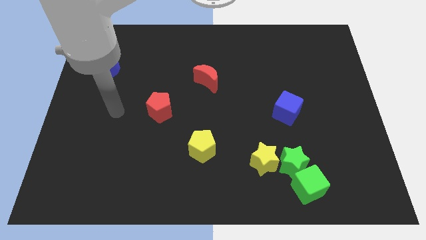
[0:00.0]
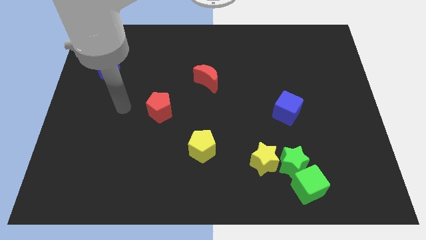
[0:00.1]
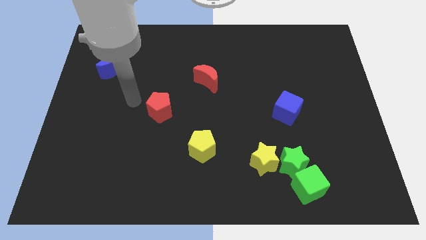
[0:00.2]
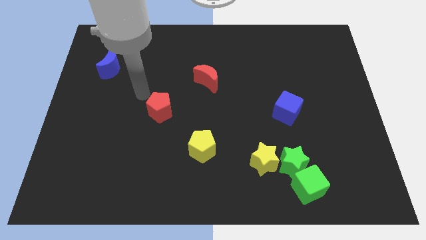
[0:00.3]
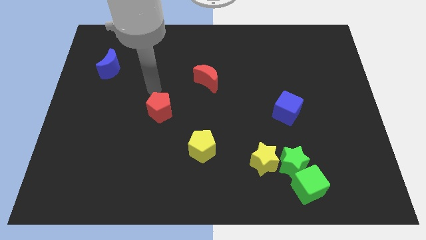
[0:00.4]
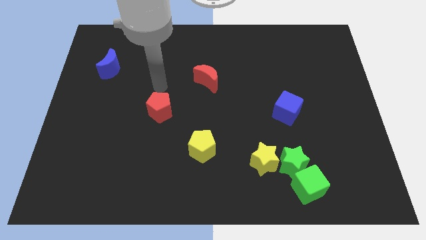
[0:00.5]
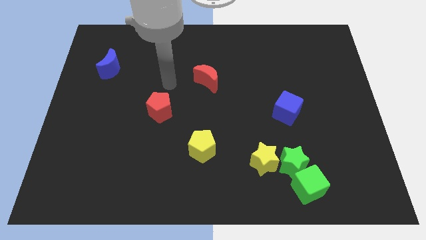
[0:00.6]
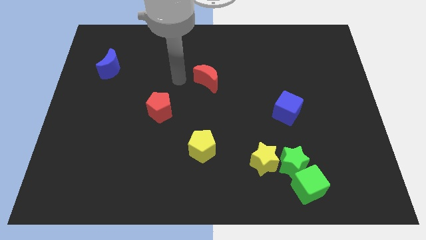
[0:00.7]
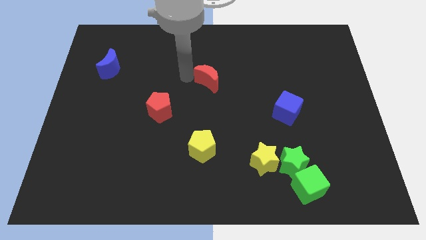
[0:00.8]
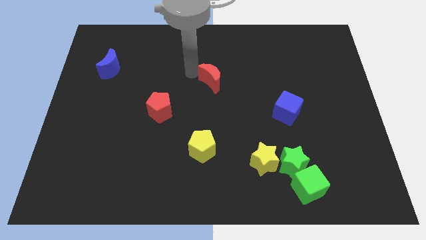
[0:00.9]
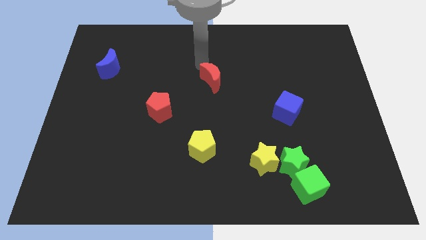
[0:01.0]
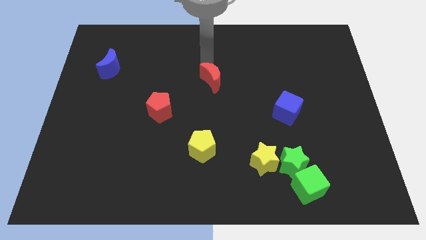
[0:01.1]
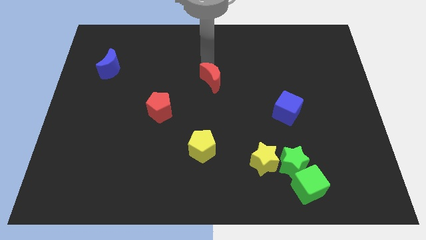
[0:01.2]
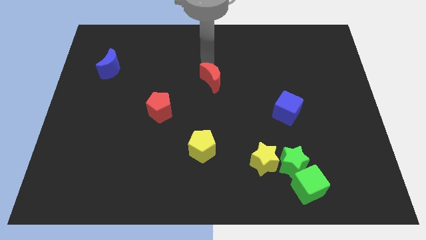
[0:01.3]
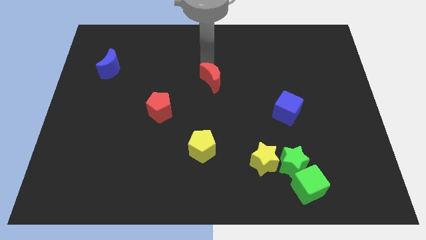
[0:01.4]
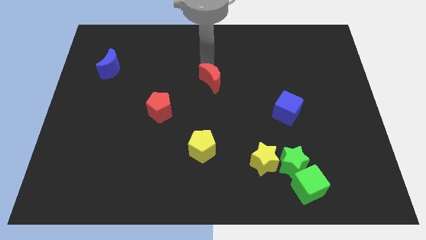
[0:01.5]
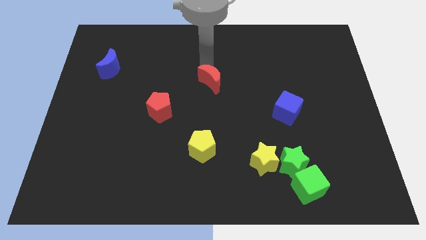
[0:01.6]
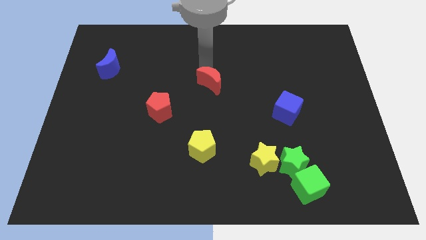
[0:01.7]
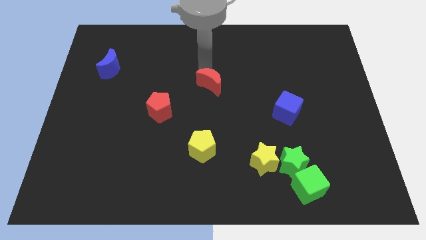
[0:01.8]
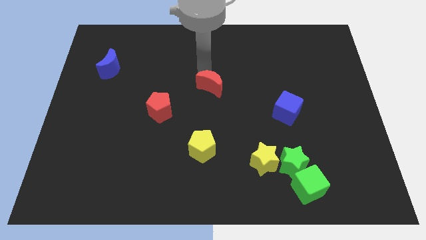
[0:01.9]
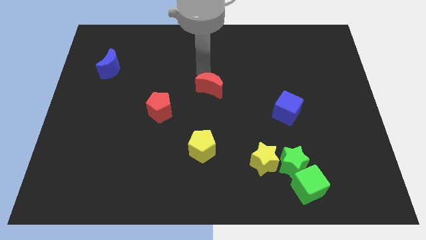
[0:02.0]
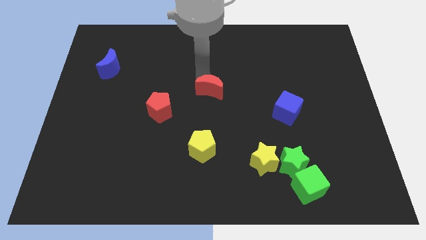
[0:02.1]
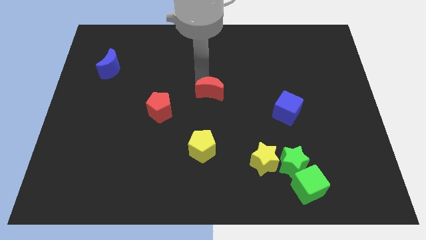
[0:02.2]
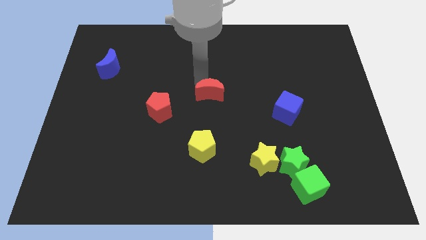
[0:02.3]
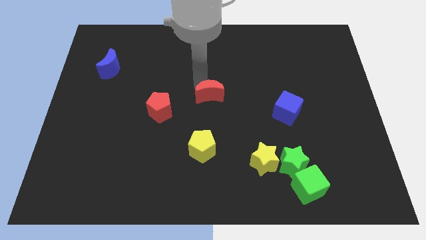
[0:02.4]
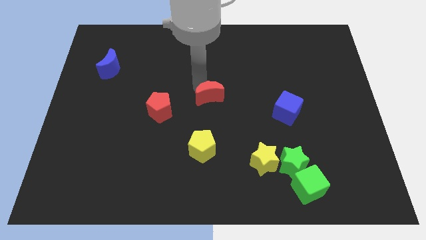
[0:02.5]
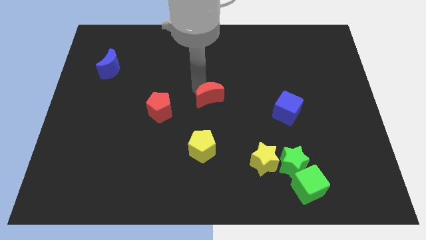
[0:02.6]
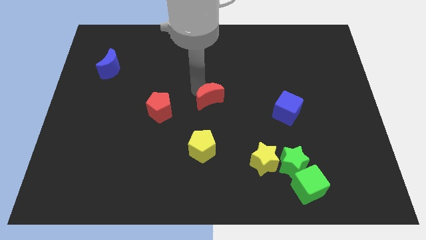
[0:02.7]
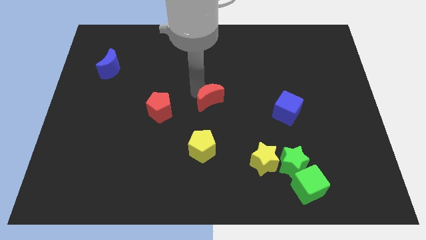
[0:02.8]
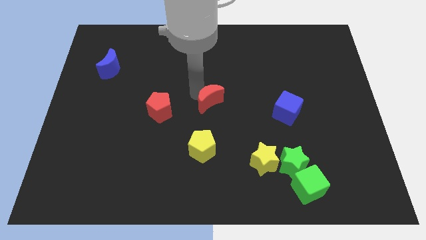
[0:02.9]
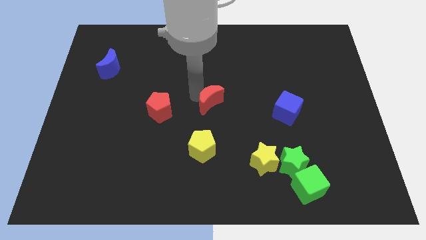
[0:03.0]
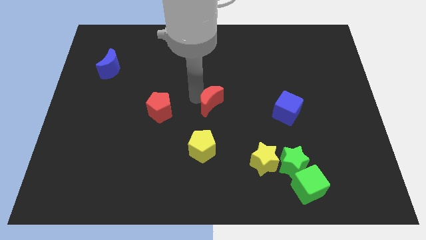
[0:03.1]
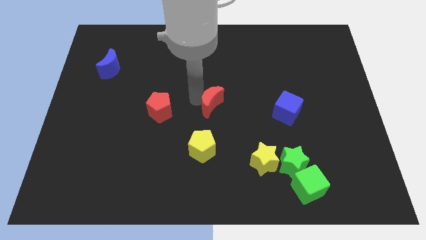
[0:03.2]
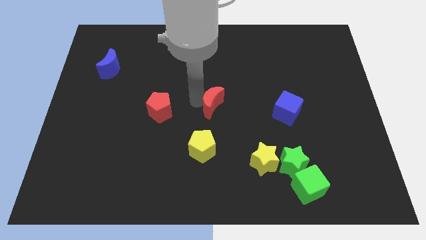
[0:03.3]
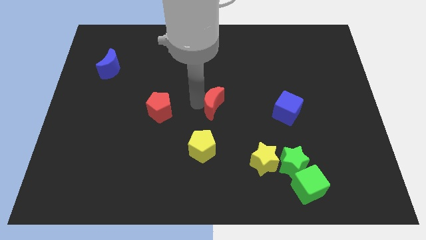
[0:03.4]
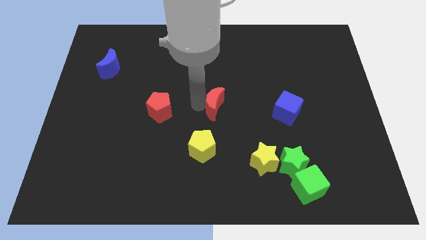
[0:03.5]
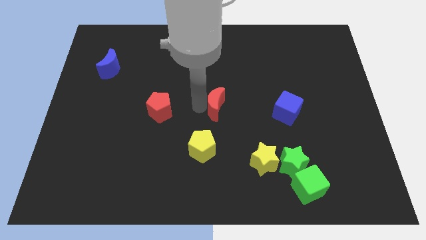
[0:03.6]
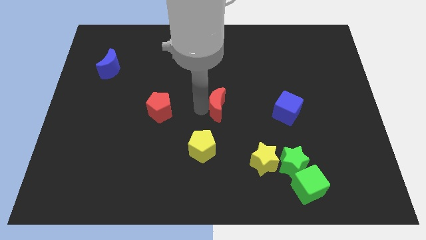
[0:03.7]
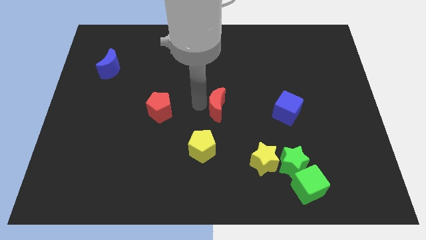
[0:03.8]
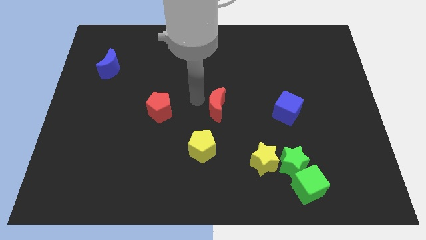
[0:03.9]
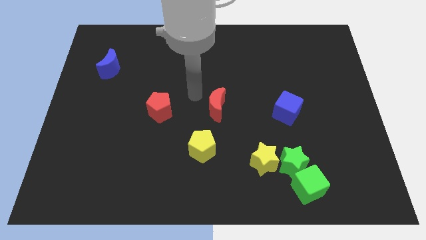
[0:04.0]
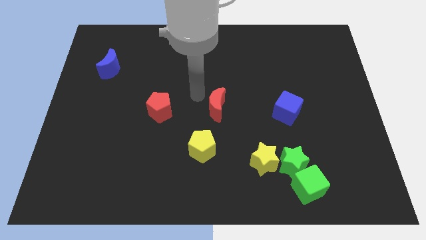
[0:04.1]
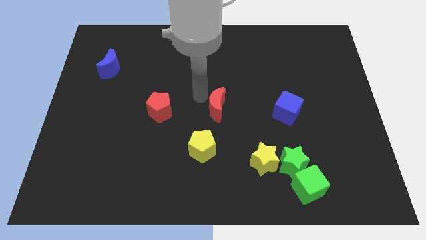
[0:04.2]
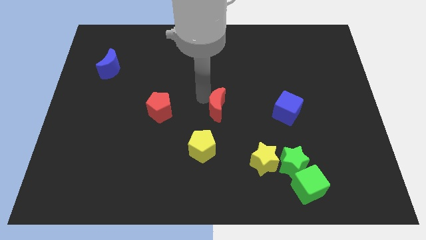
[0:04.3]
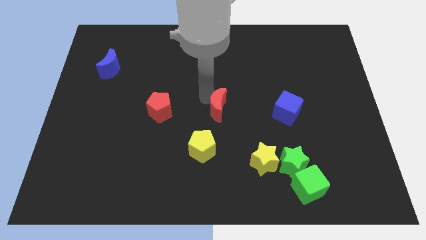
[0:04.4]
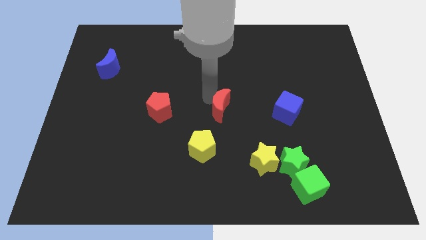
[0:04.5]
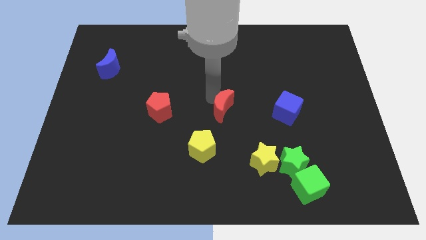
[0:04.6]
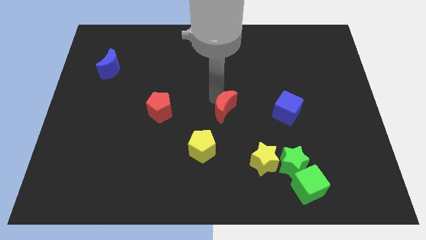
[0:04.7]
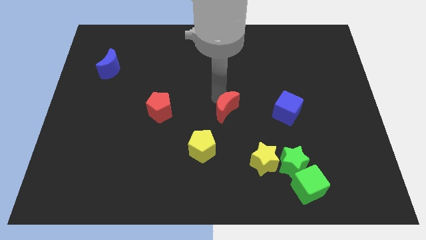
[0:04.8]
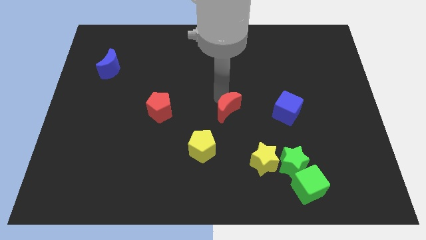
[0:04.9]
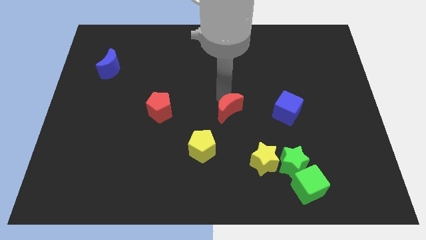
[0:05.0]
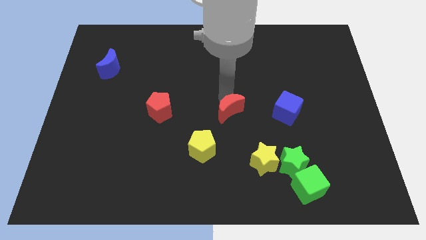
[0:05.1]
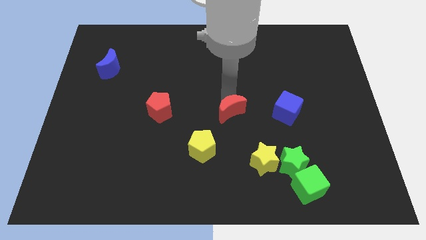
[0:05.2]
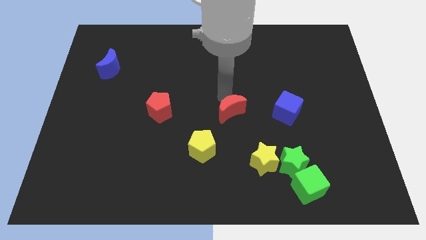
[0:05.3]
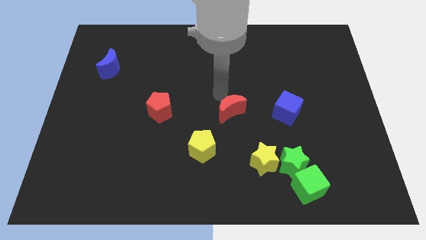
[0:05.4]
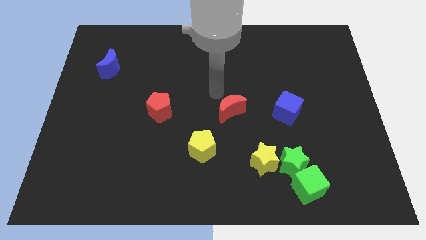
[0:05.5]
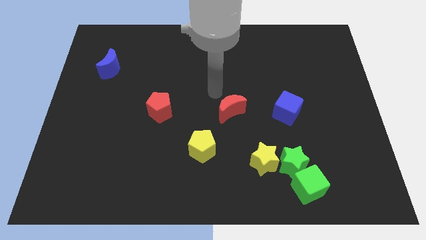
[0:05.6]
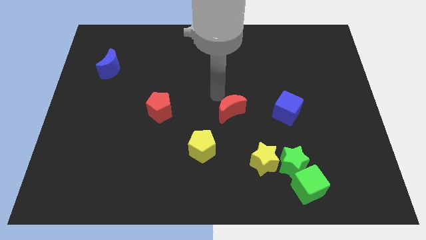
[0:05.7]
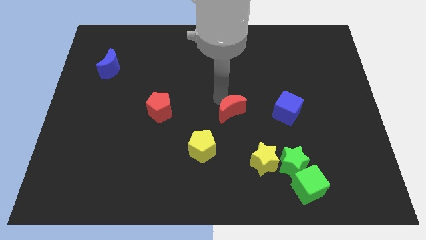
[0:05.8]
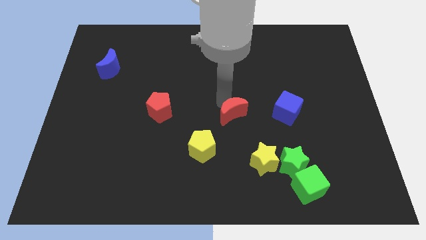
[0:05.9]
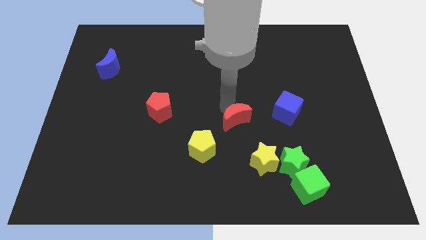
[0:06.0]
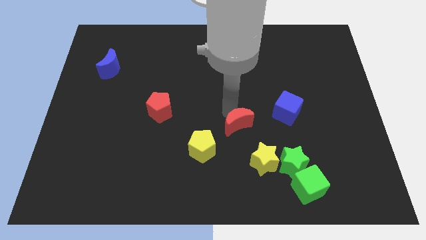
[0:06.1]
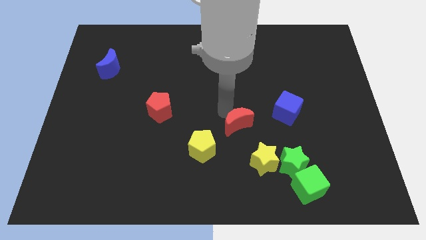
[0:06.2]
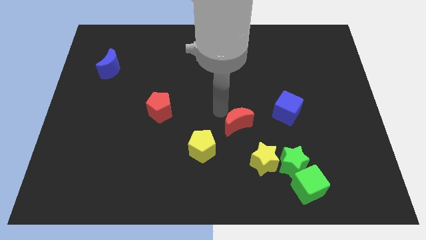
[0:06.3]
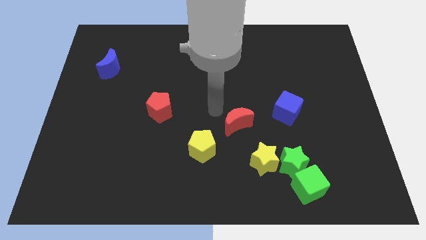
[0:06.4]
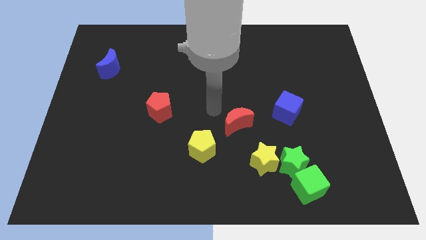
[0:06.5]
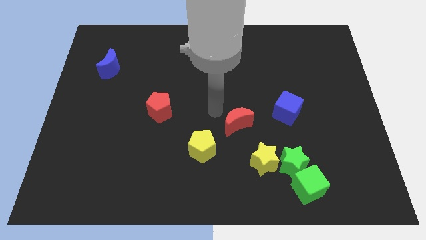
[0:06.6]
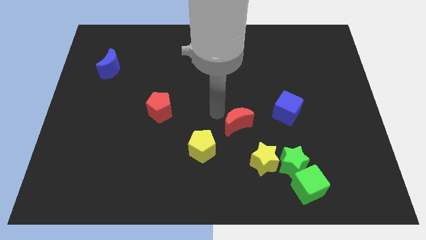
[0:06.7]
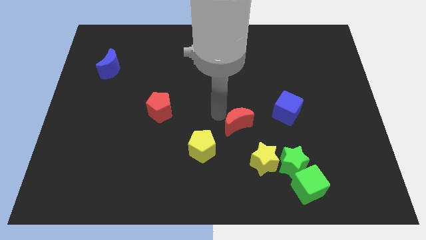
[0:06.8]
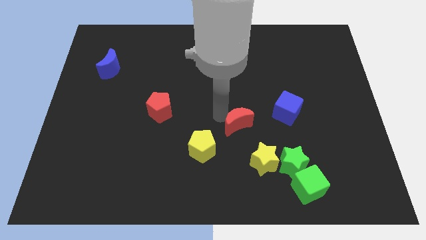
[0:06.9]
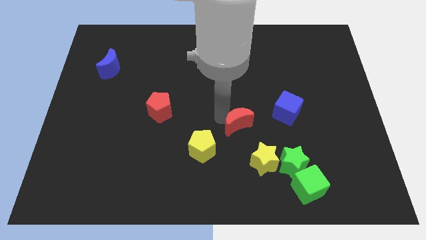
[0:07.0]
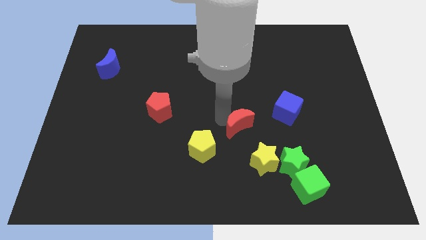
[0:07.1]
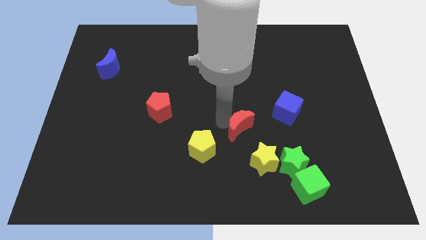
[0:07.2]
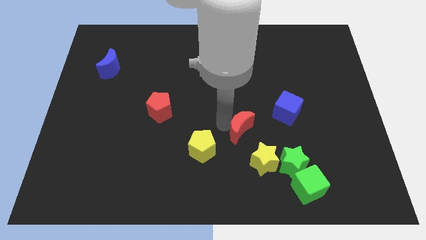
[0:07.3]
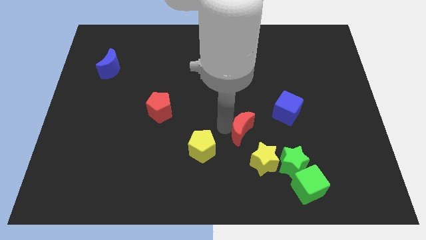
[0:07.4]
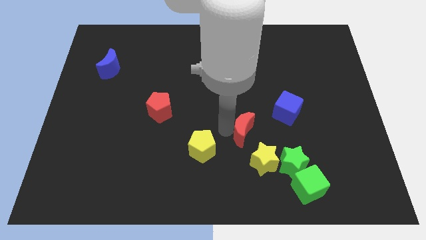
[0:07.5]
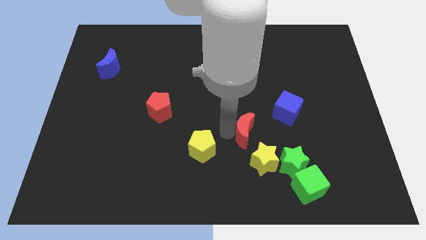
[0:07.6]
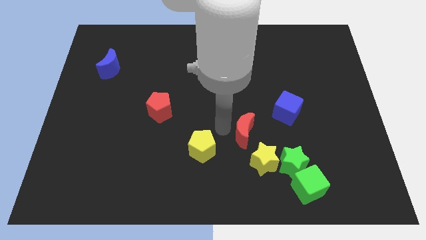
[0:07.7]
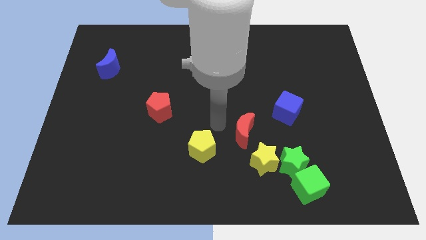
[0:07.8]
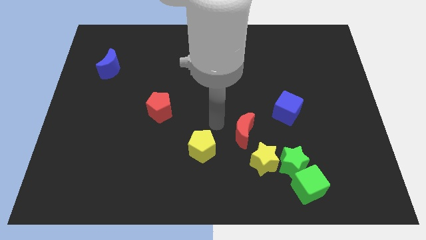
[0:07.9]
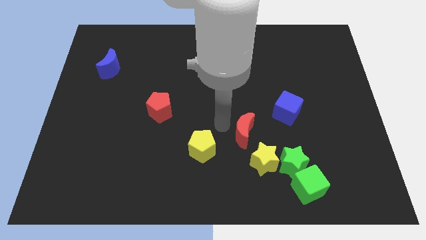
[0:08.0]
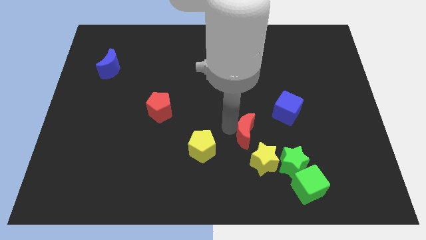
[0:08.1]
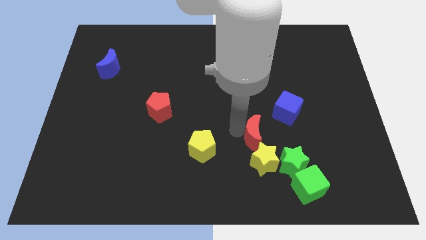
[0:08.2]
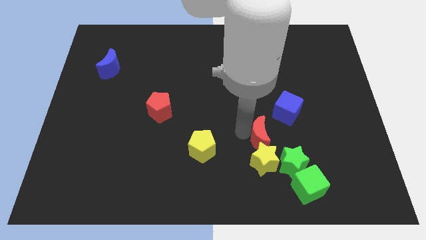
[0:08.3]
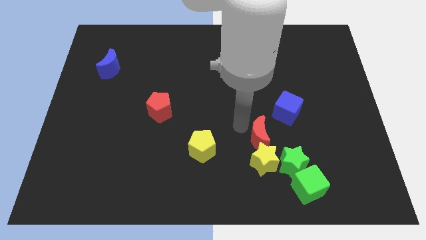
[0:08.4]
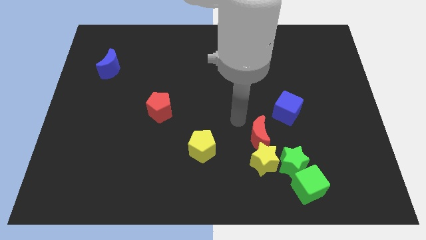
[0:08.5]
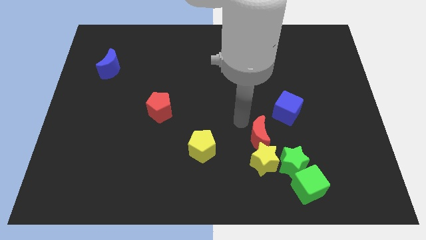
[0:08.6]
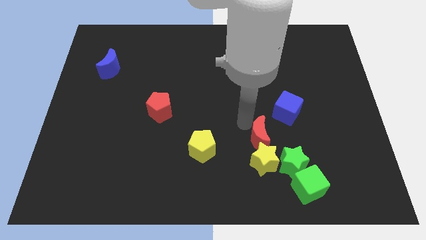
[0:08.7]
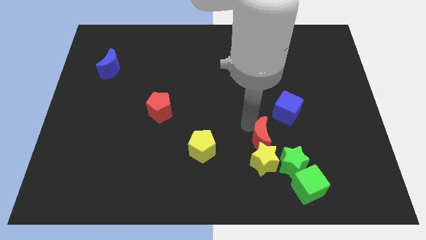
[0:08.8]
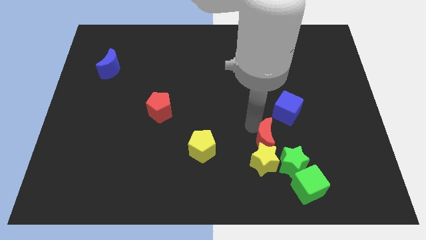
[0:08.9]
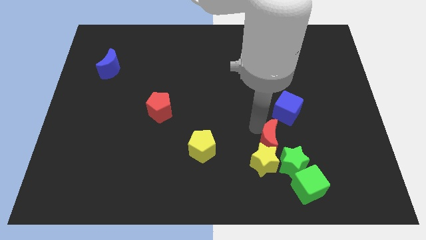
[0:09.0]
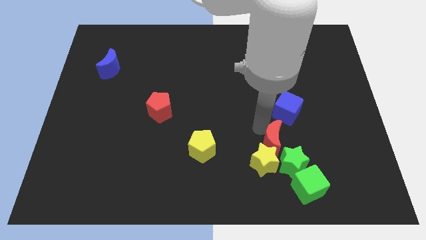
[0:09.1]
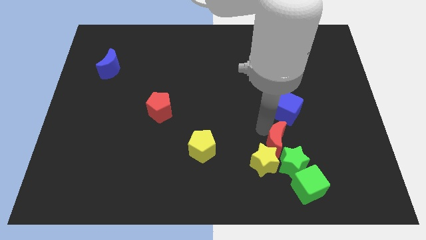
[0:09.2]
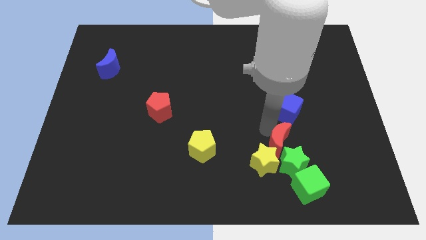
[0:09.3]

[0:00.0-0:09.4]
push the red moon next to the green star
